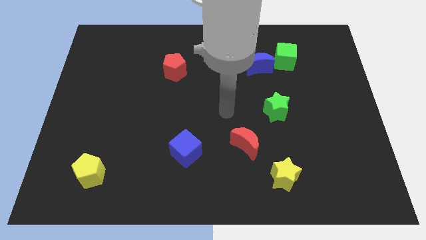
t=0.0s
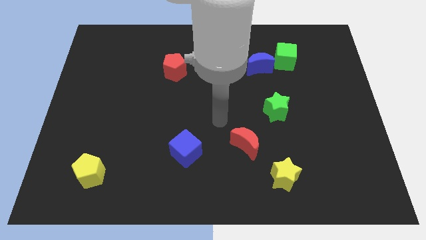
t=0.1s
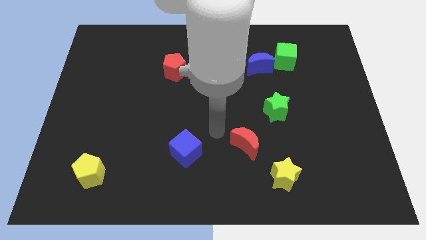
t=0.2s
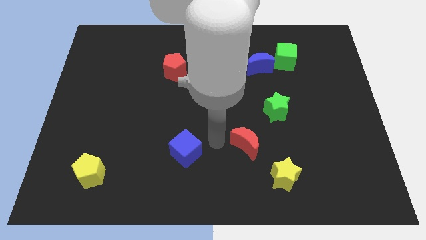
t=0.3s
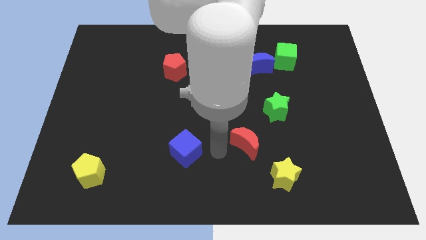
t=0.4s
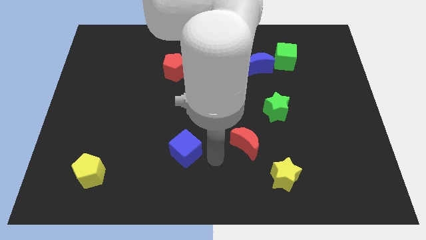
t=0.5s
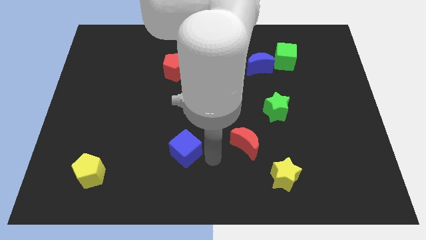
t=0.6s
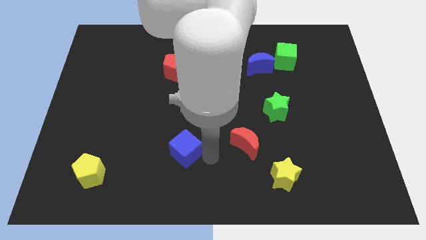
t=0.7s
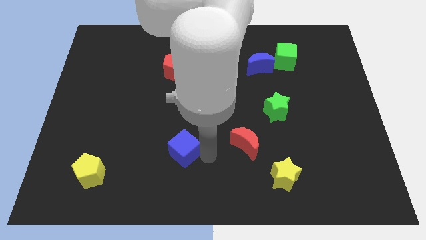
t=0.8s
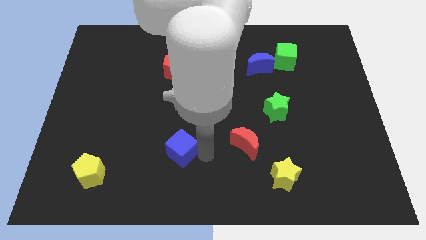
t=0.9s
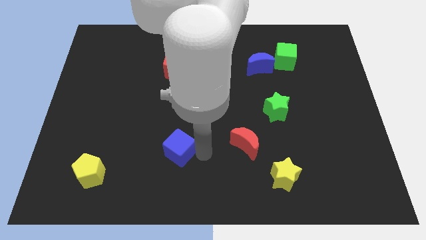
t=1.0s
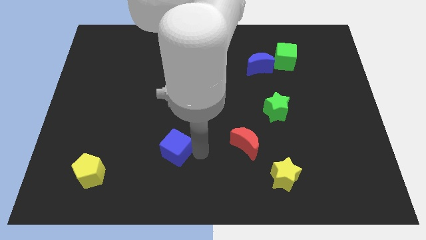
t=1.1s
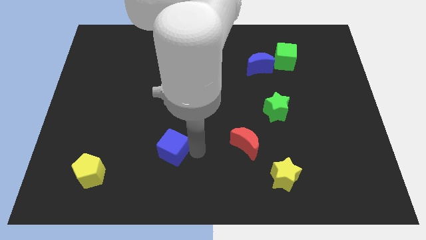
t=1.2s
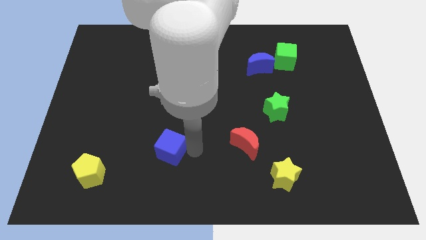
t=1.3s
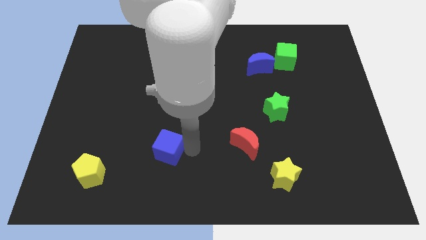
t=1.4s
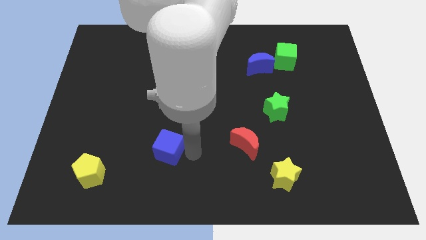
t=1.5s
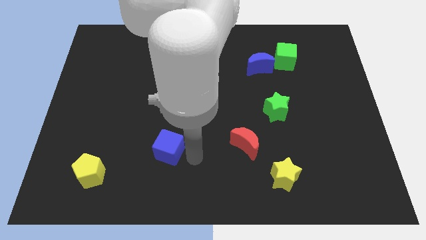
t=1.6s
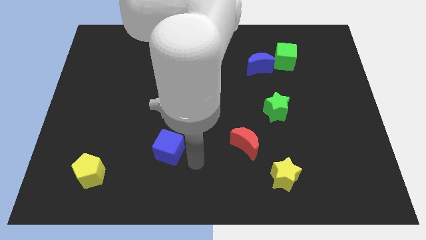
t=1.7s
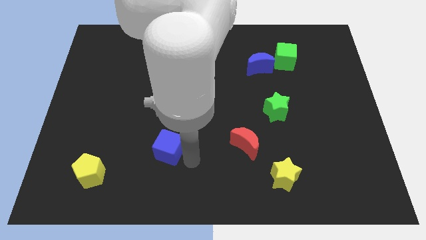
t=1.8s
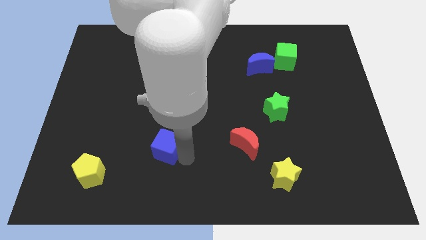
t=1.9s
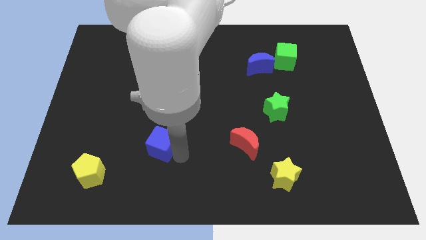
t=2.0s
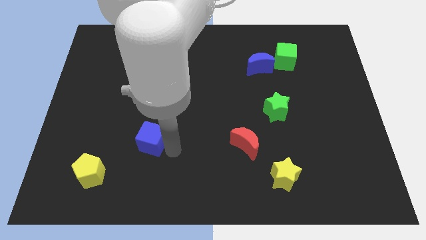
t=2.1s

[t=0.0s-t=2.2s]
slightly move the blue cube left

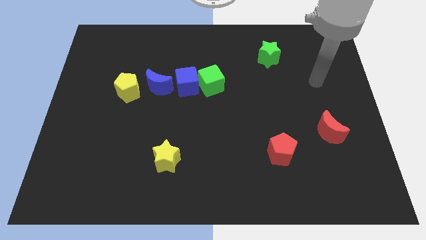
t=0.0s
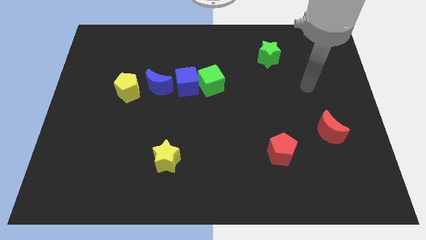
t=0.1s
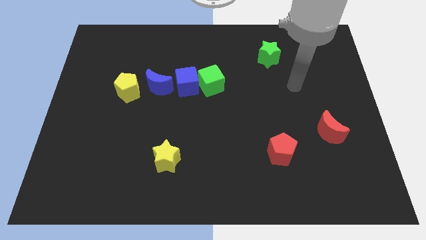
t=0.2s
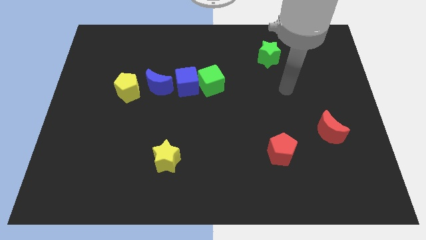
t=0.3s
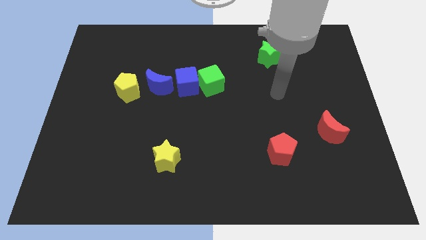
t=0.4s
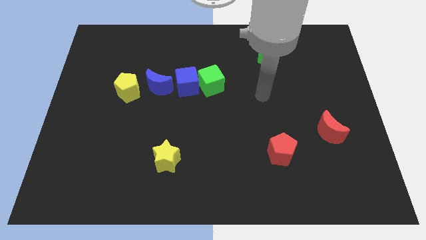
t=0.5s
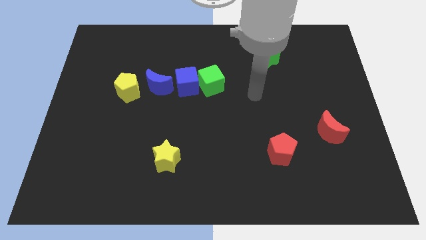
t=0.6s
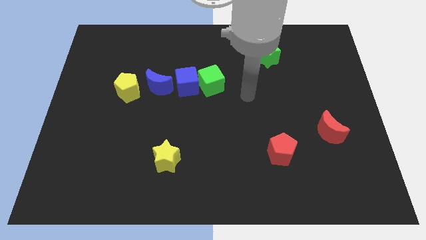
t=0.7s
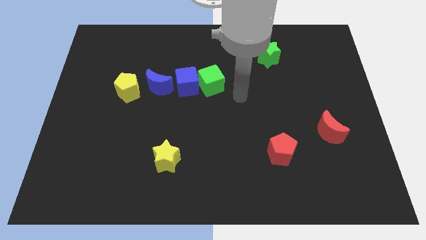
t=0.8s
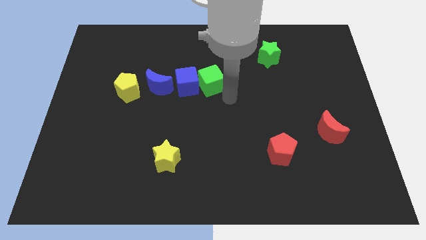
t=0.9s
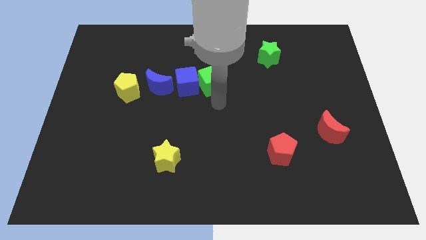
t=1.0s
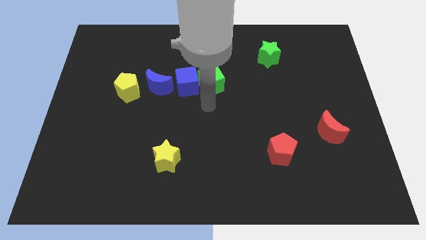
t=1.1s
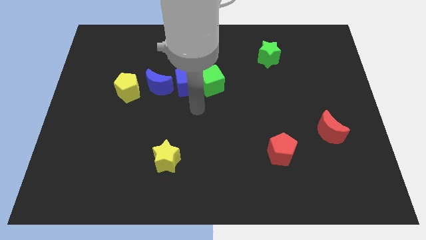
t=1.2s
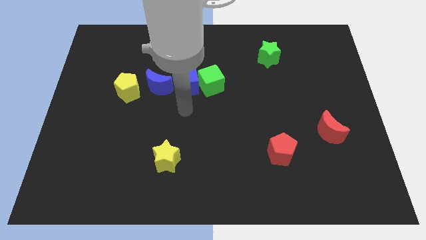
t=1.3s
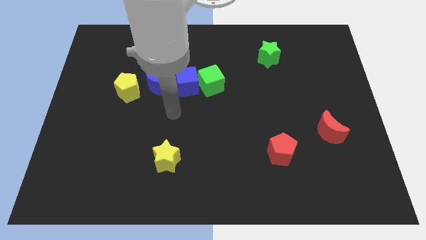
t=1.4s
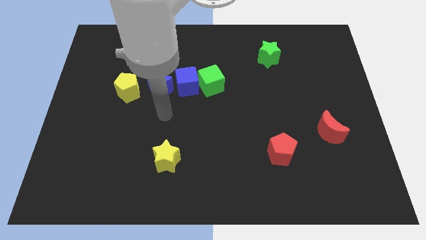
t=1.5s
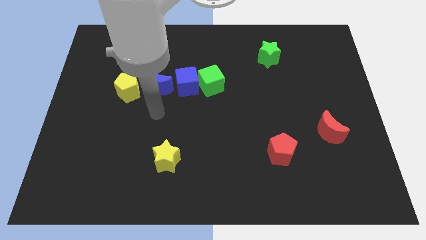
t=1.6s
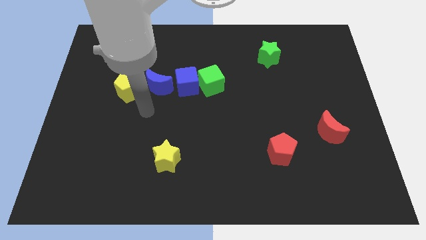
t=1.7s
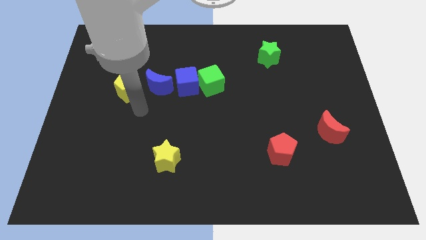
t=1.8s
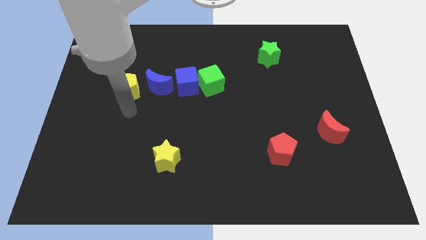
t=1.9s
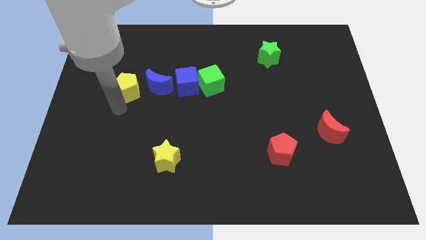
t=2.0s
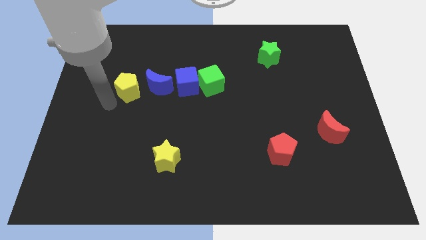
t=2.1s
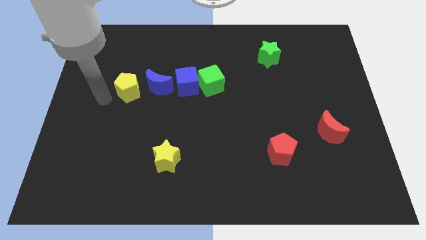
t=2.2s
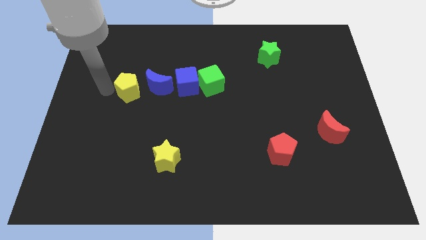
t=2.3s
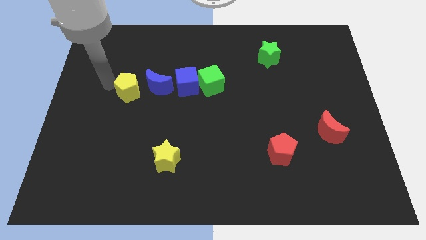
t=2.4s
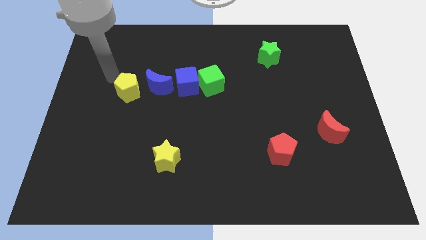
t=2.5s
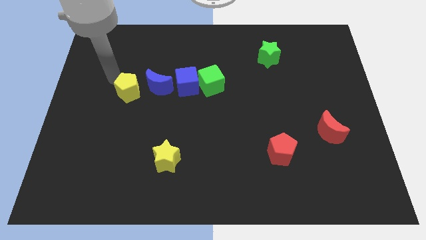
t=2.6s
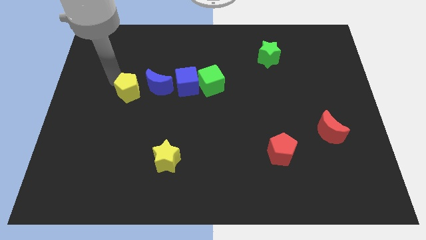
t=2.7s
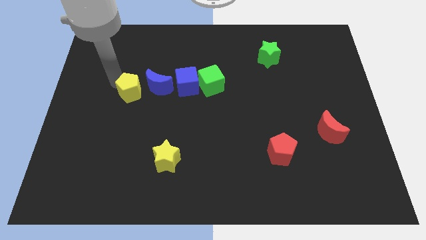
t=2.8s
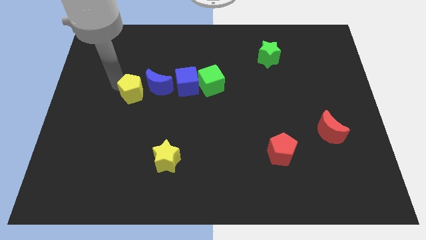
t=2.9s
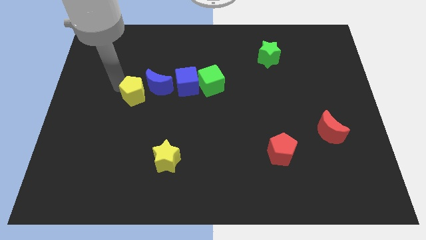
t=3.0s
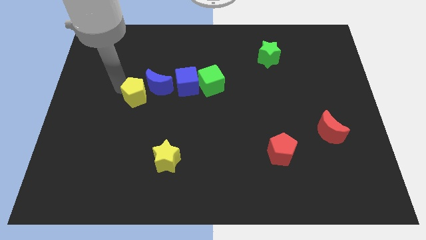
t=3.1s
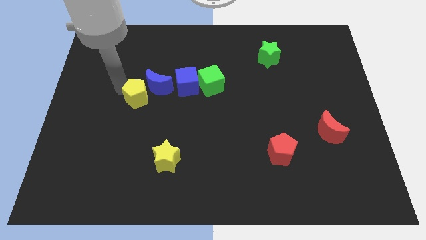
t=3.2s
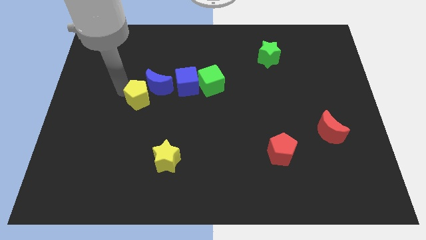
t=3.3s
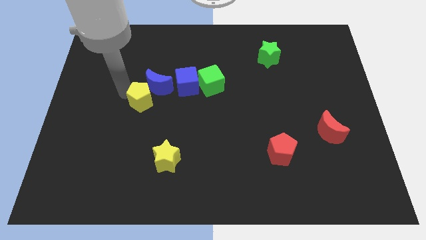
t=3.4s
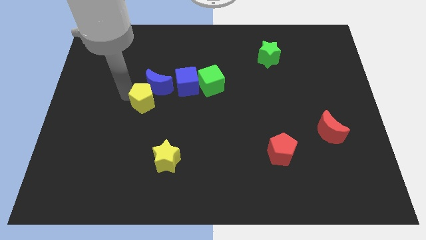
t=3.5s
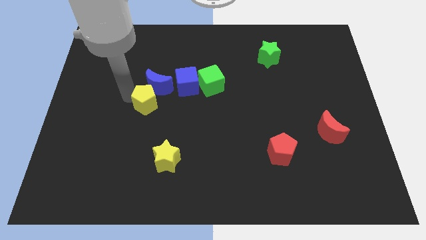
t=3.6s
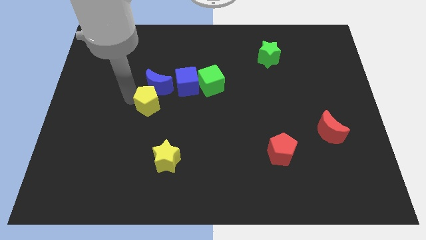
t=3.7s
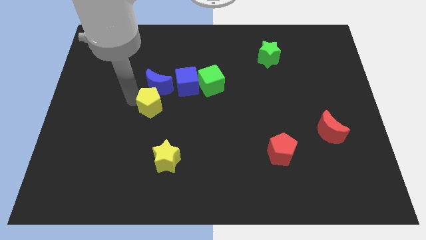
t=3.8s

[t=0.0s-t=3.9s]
slide the yellow pentagon down and then right a little

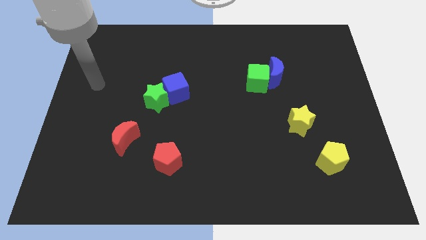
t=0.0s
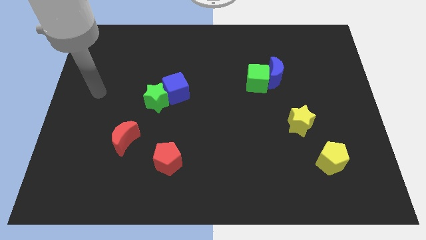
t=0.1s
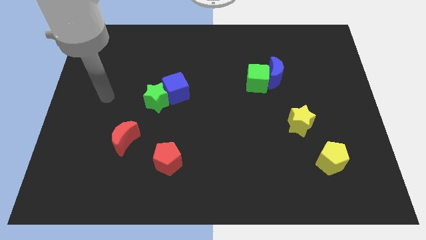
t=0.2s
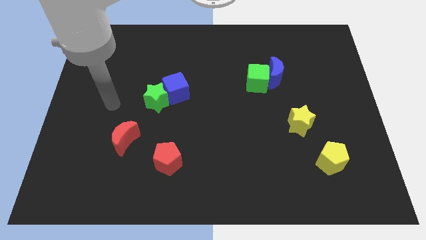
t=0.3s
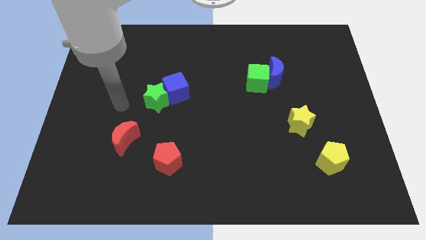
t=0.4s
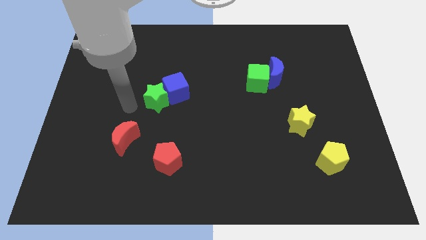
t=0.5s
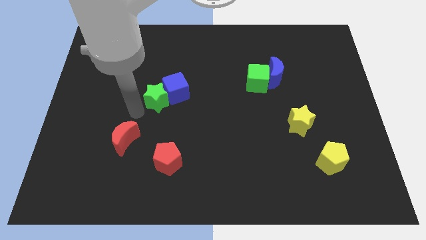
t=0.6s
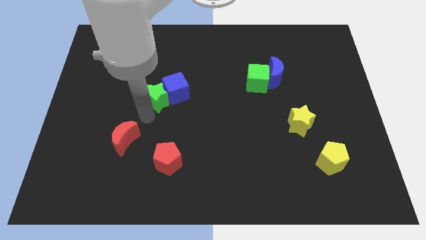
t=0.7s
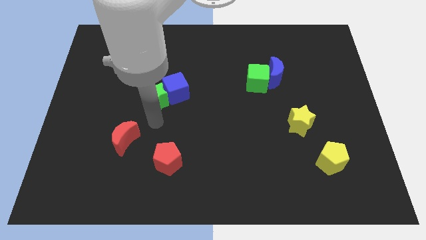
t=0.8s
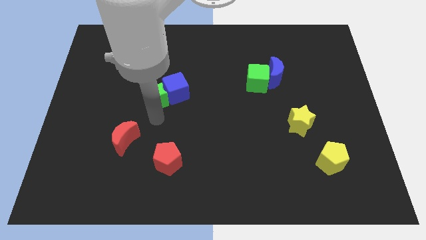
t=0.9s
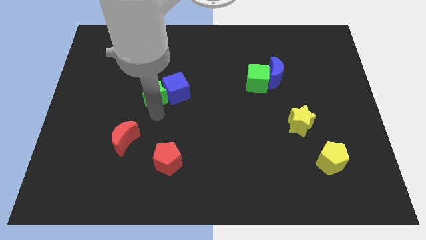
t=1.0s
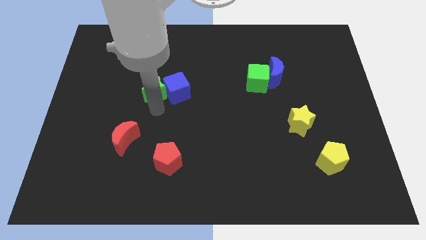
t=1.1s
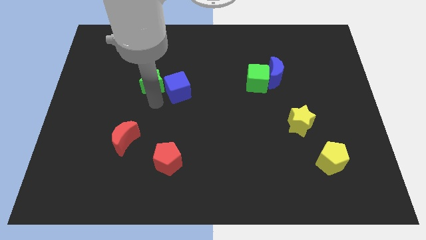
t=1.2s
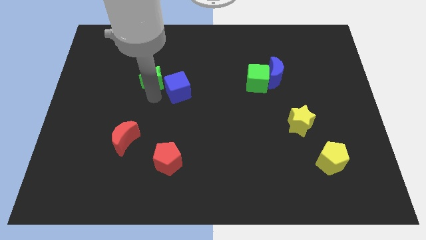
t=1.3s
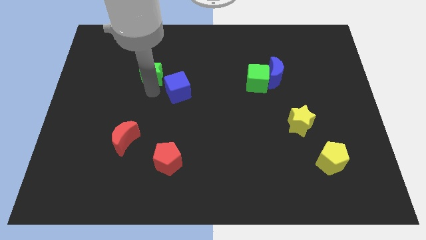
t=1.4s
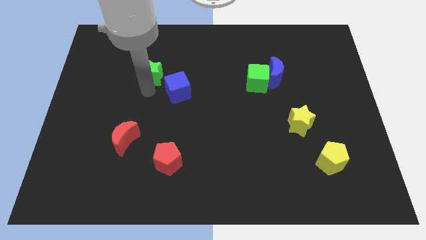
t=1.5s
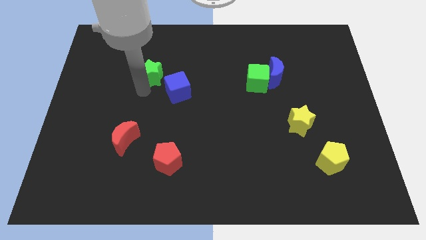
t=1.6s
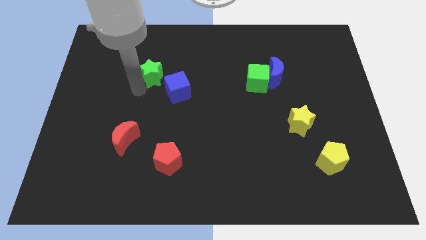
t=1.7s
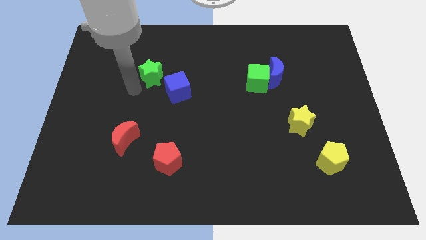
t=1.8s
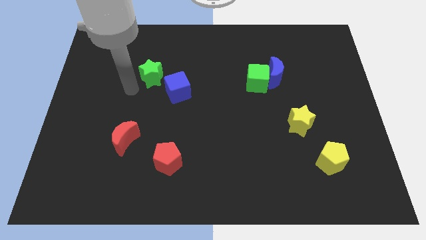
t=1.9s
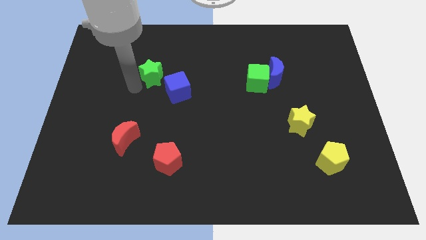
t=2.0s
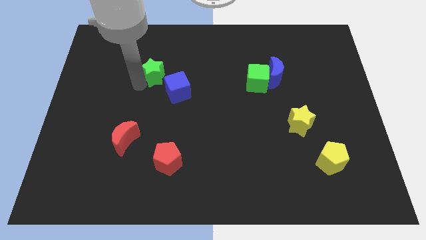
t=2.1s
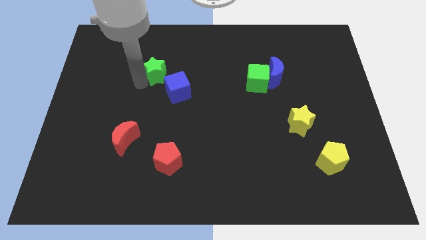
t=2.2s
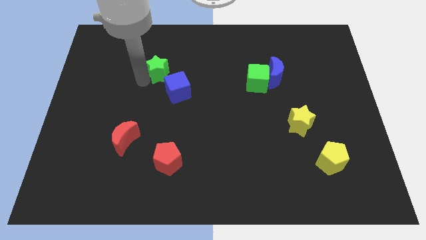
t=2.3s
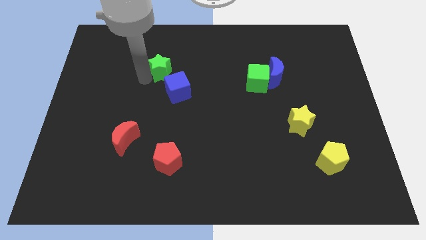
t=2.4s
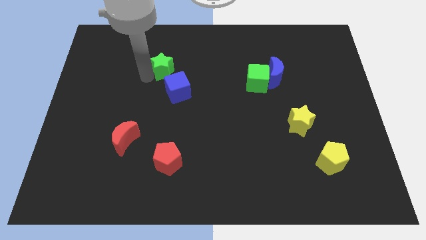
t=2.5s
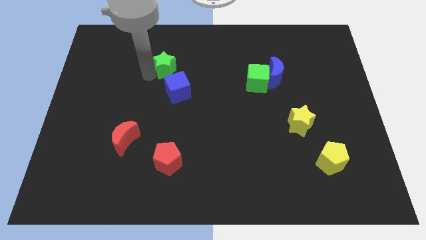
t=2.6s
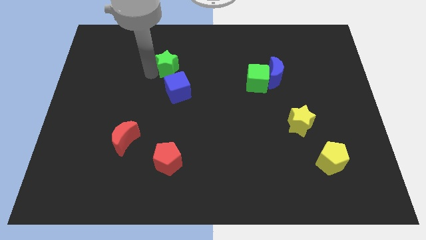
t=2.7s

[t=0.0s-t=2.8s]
slide the green star upwards and then right a little
